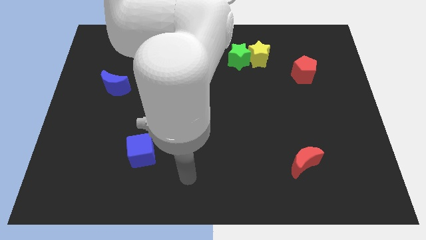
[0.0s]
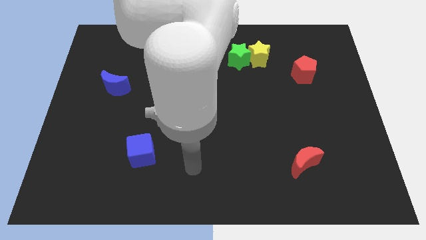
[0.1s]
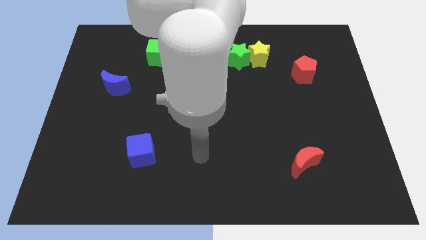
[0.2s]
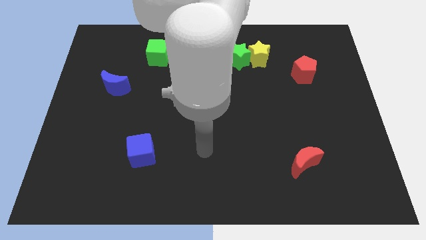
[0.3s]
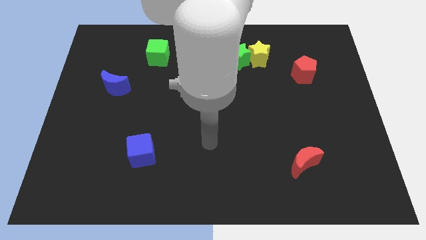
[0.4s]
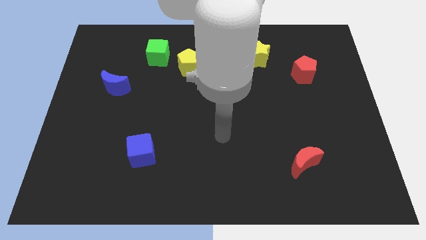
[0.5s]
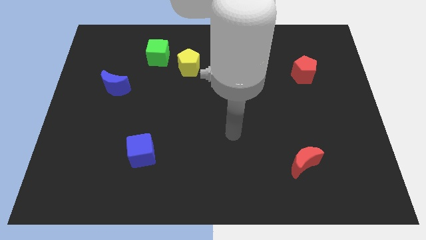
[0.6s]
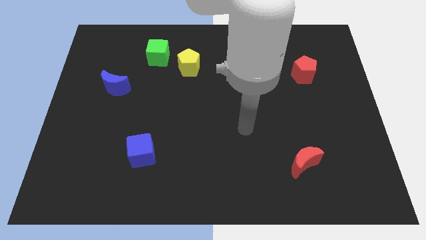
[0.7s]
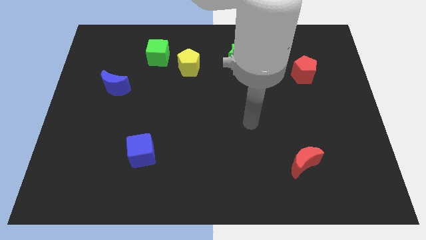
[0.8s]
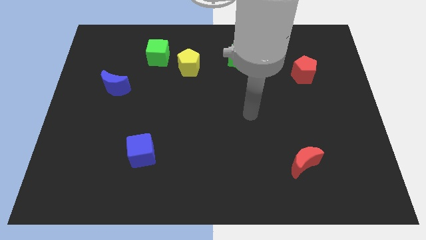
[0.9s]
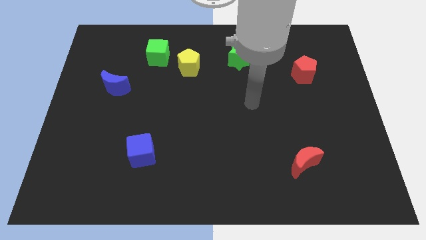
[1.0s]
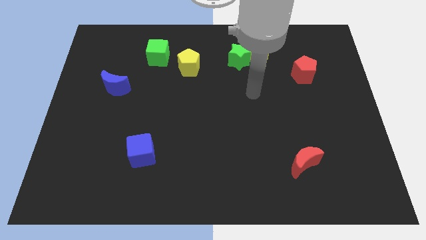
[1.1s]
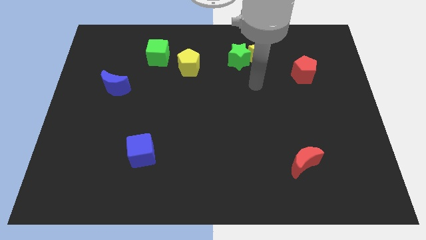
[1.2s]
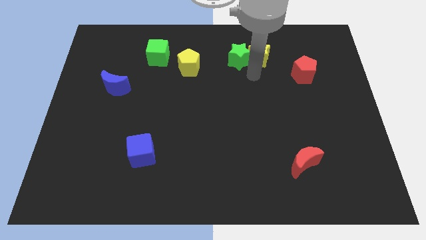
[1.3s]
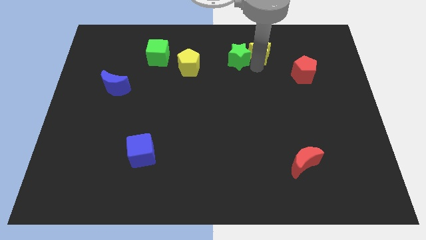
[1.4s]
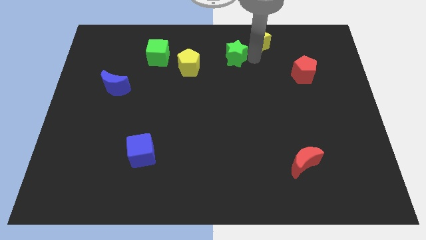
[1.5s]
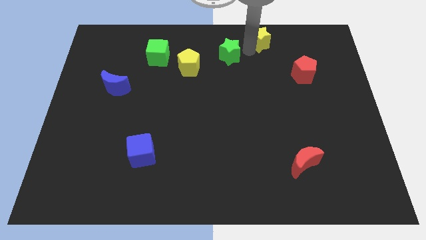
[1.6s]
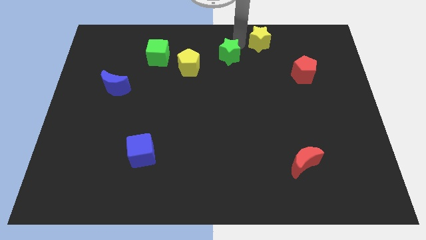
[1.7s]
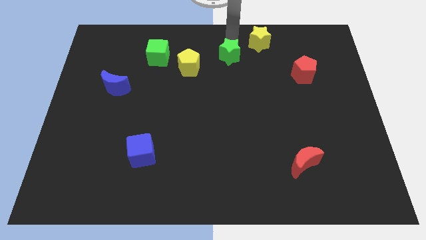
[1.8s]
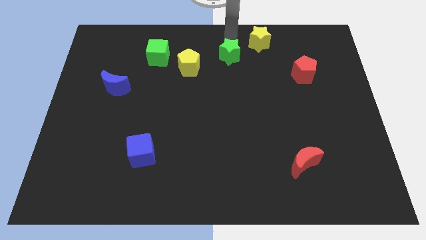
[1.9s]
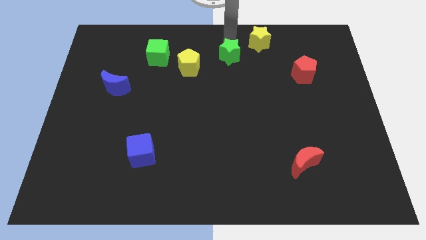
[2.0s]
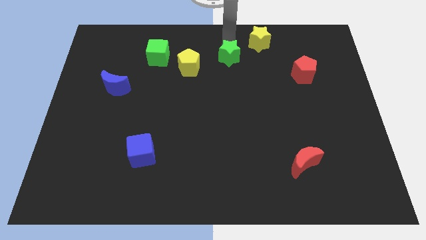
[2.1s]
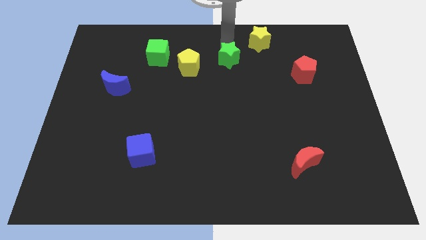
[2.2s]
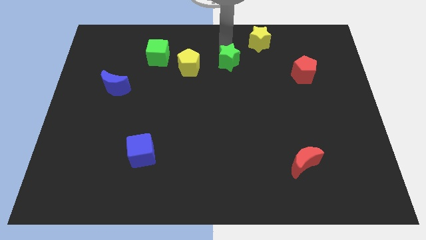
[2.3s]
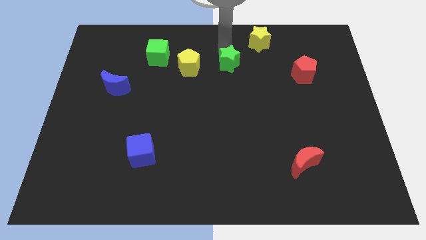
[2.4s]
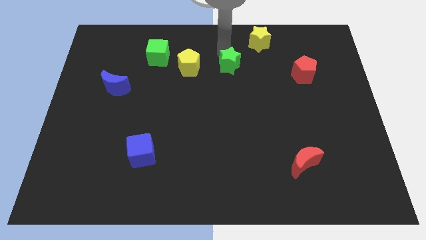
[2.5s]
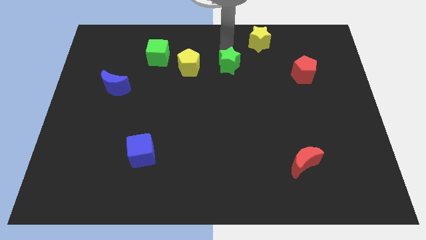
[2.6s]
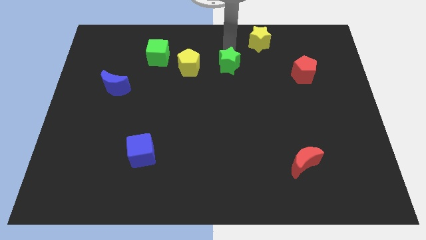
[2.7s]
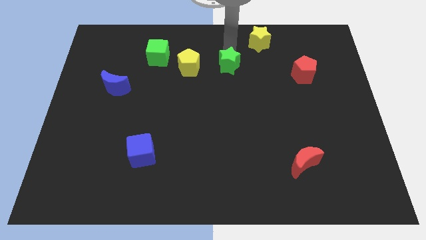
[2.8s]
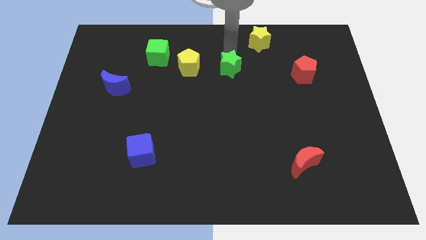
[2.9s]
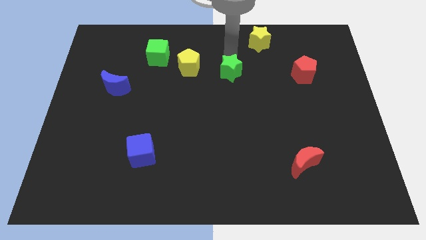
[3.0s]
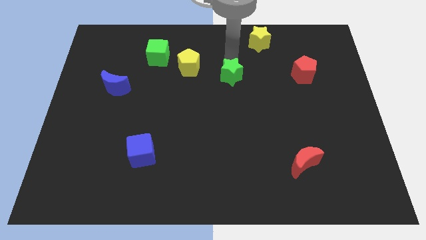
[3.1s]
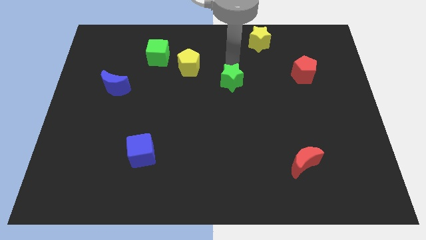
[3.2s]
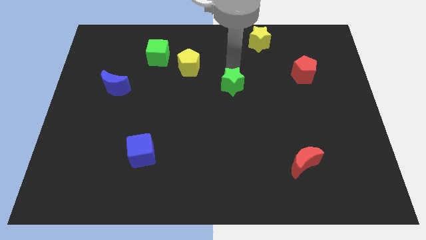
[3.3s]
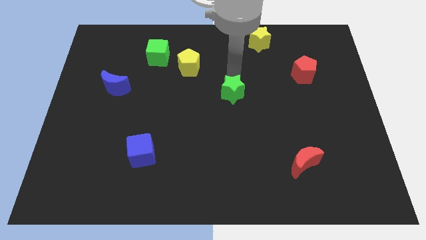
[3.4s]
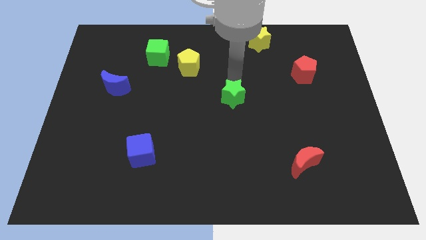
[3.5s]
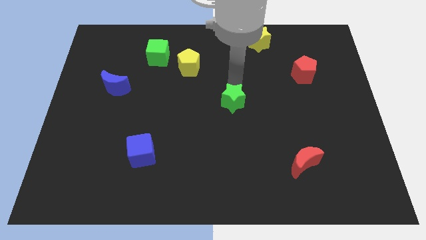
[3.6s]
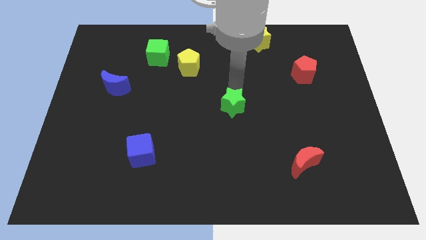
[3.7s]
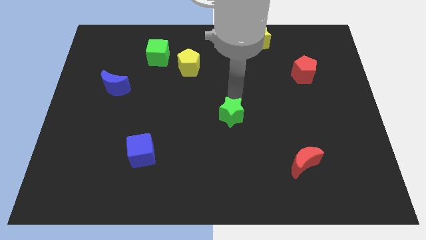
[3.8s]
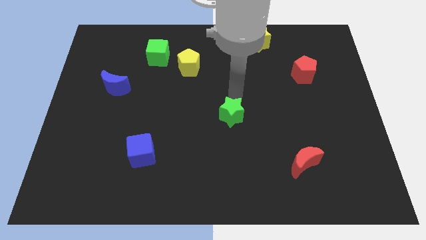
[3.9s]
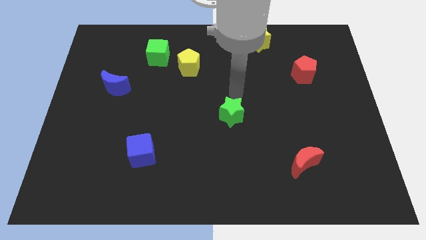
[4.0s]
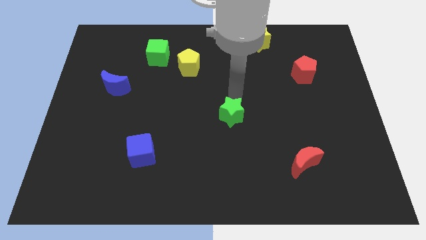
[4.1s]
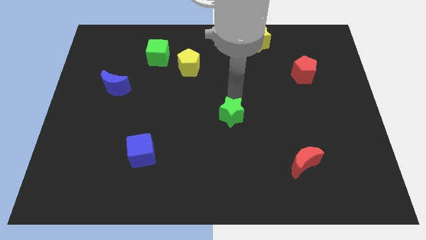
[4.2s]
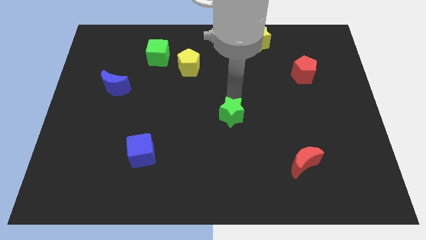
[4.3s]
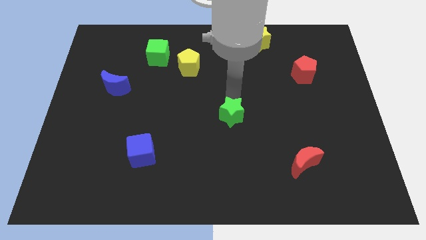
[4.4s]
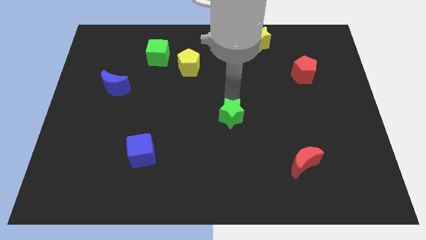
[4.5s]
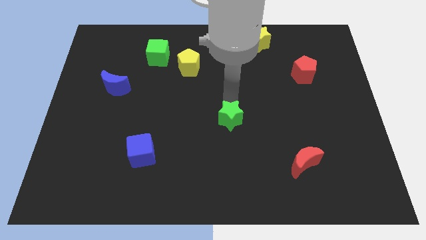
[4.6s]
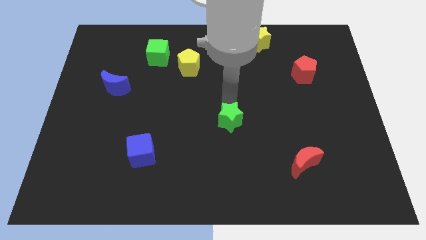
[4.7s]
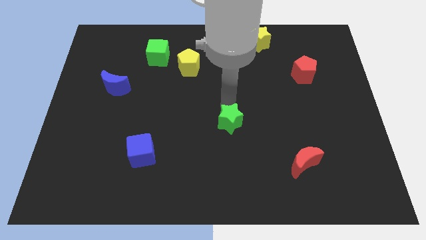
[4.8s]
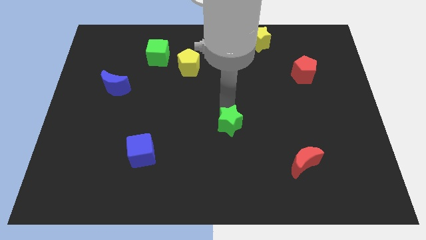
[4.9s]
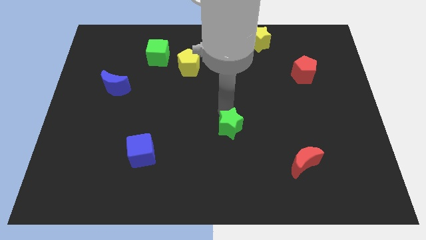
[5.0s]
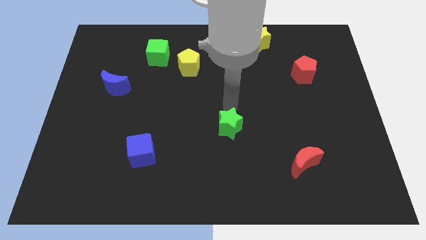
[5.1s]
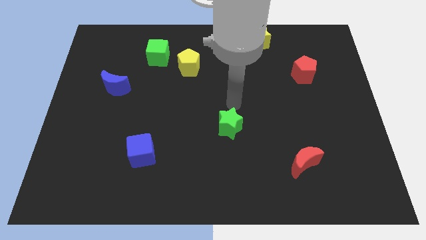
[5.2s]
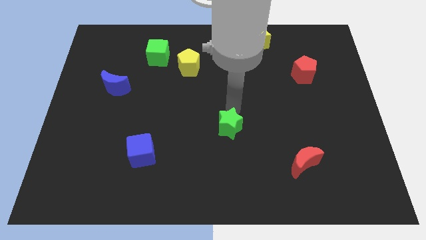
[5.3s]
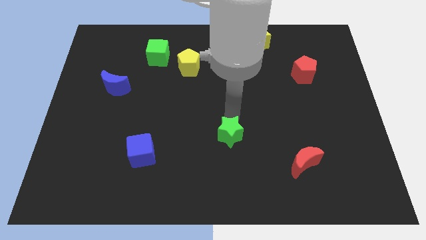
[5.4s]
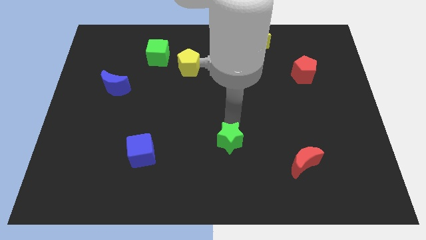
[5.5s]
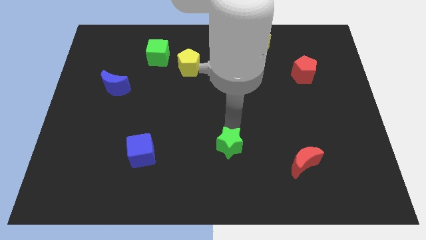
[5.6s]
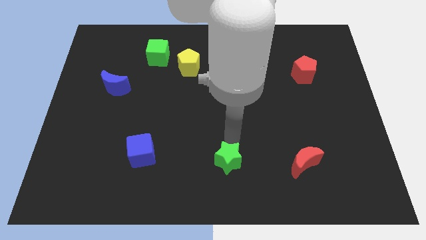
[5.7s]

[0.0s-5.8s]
slide the green star to the bottom

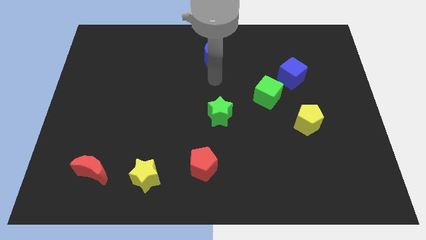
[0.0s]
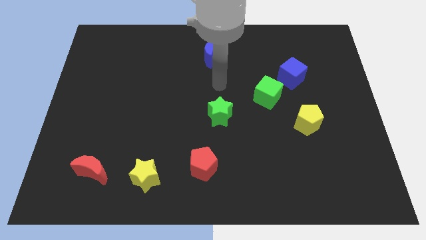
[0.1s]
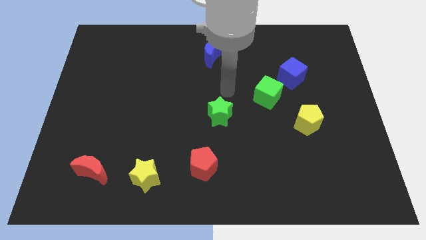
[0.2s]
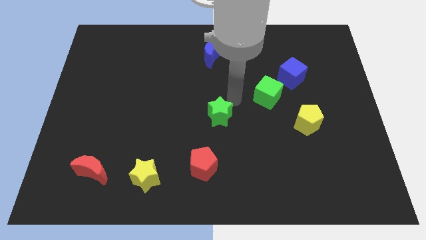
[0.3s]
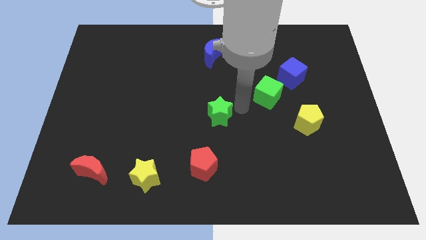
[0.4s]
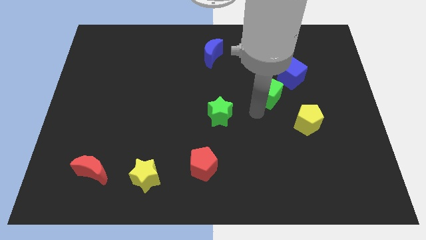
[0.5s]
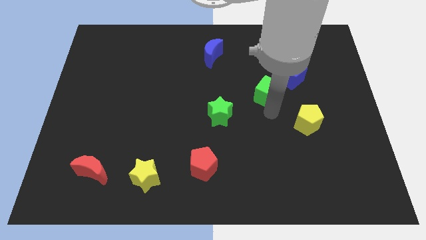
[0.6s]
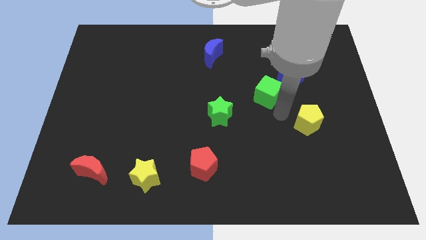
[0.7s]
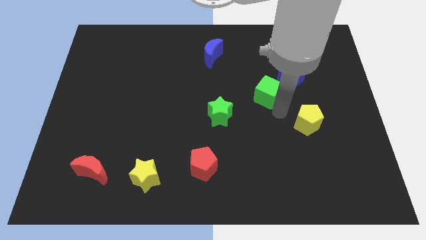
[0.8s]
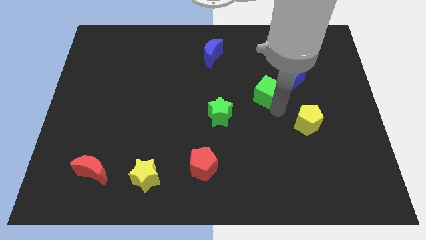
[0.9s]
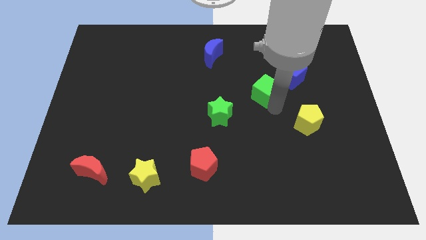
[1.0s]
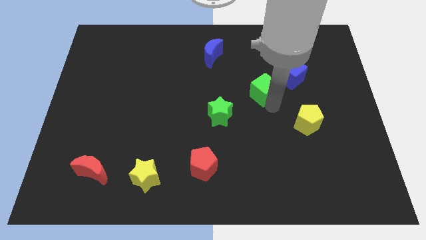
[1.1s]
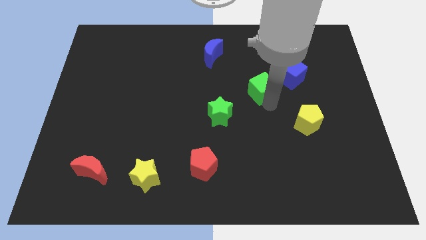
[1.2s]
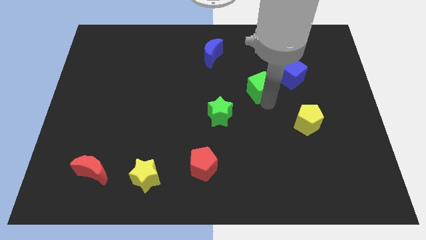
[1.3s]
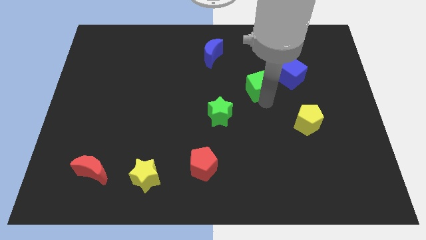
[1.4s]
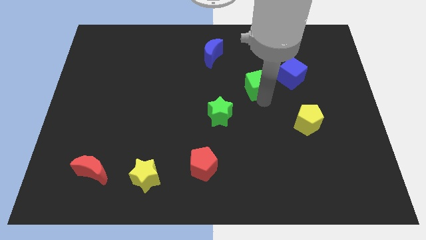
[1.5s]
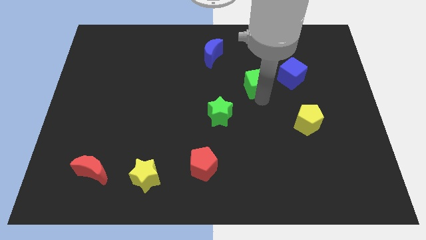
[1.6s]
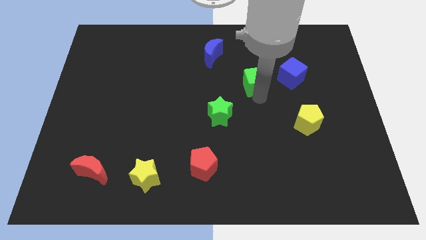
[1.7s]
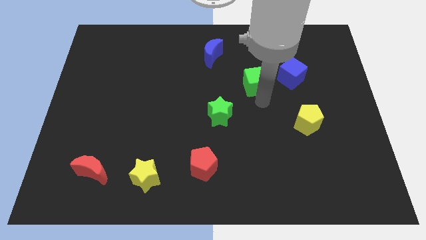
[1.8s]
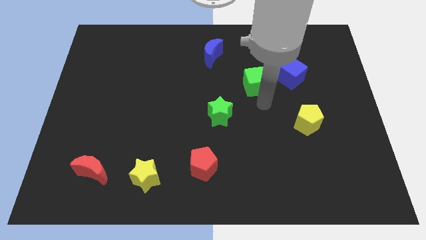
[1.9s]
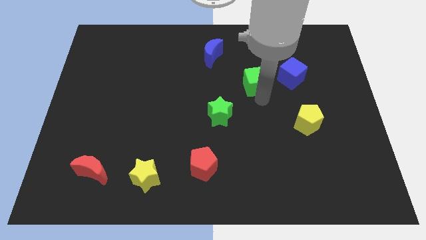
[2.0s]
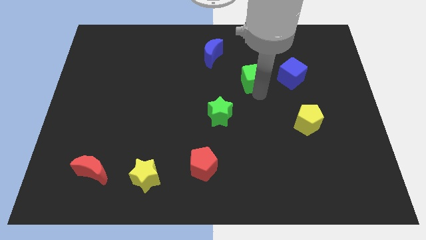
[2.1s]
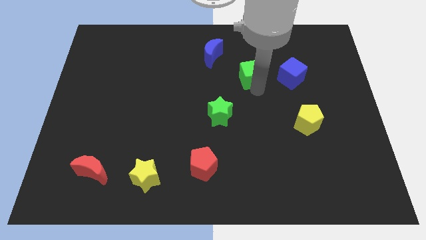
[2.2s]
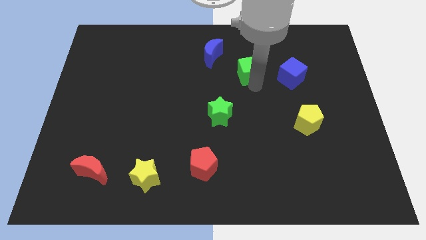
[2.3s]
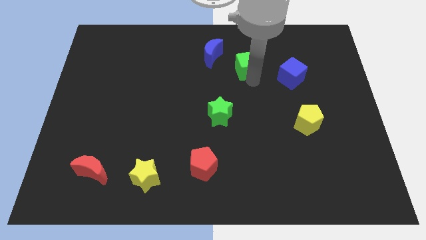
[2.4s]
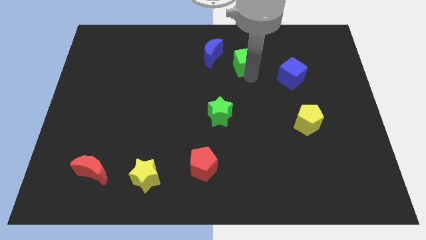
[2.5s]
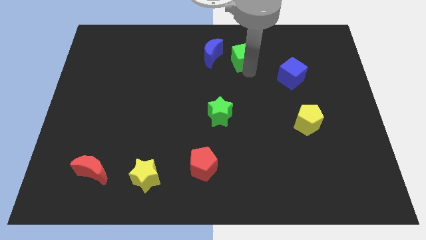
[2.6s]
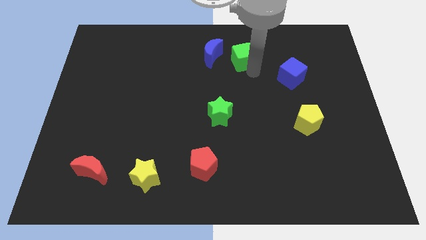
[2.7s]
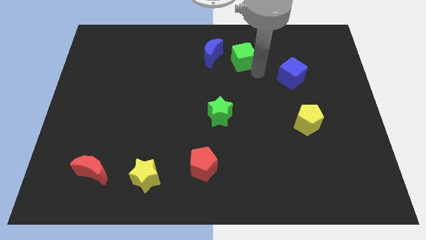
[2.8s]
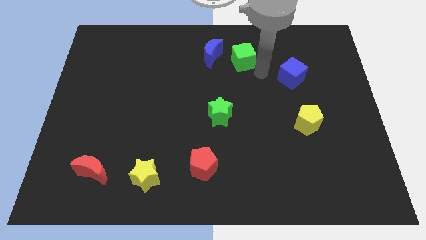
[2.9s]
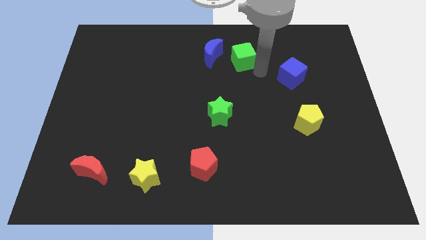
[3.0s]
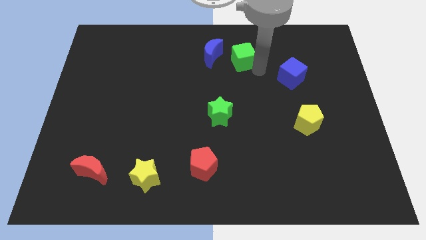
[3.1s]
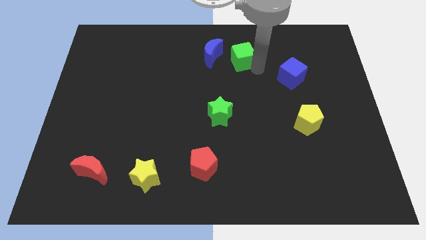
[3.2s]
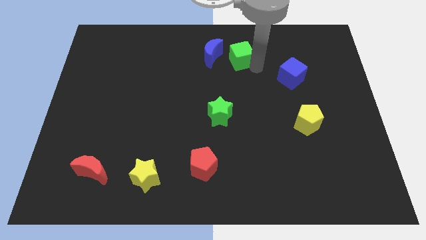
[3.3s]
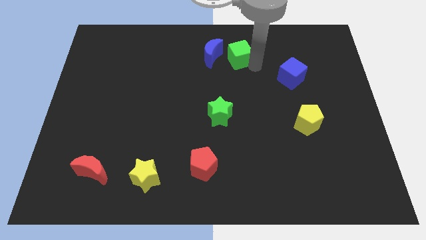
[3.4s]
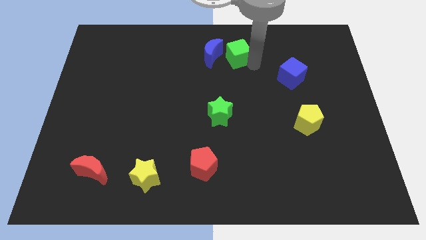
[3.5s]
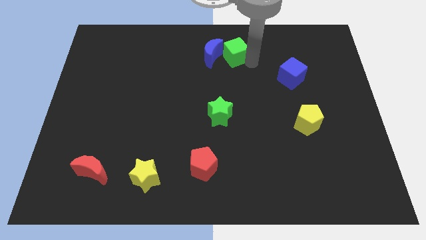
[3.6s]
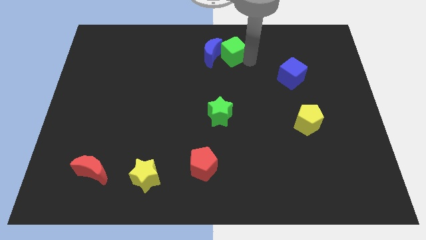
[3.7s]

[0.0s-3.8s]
slide the green cube to the towards your base
